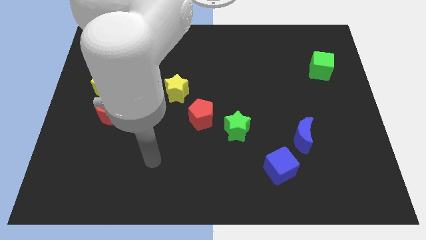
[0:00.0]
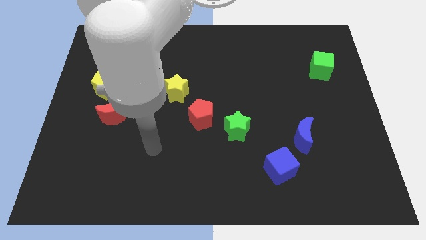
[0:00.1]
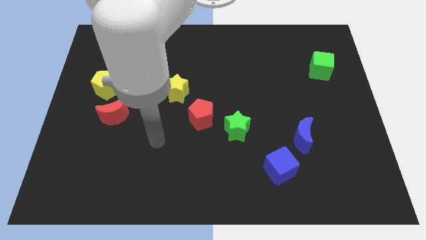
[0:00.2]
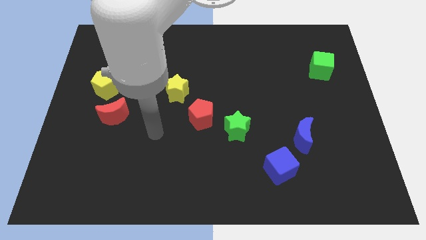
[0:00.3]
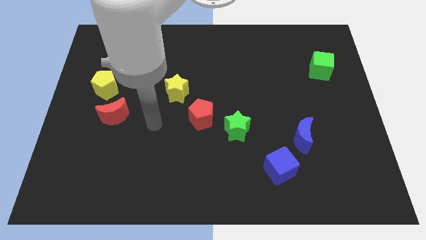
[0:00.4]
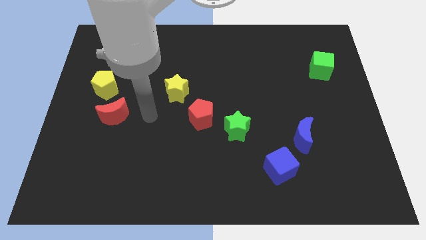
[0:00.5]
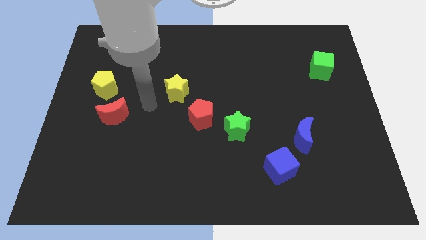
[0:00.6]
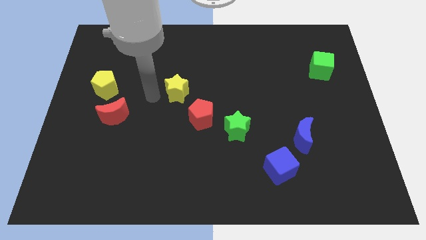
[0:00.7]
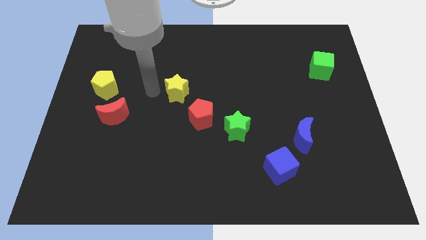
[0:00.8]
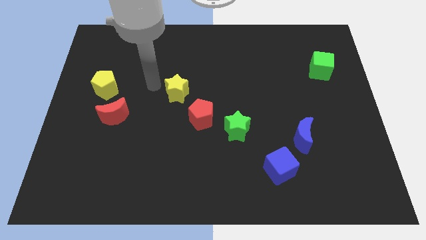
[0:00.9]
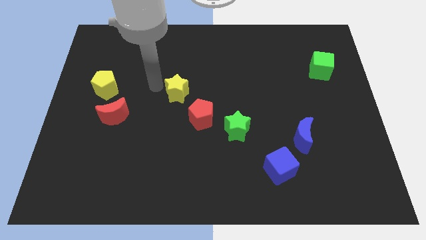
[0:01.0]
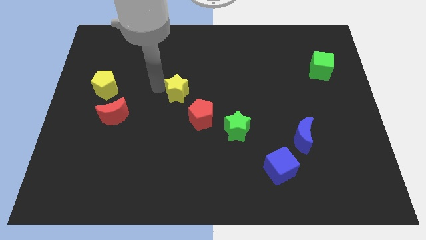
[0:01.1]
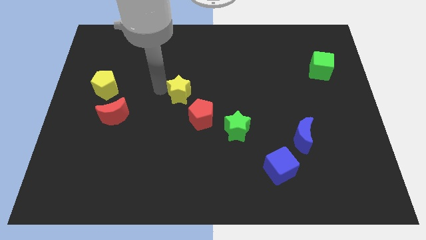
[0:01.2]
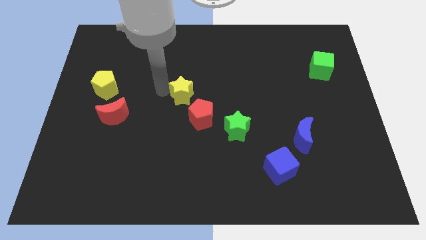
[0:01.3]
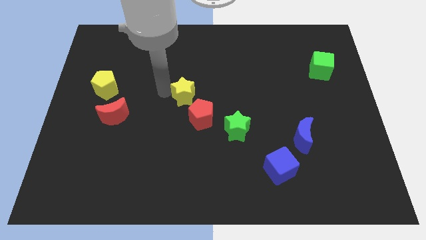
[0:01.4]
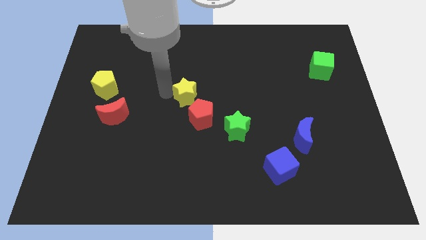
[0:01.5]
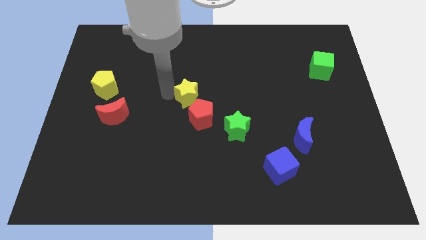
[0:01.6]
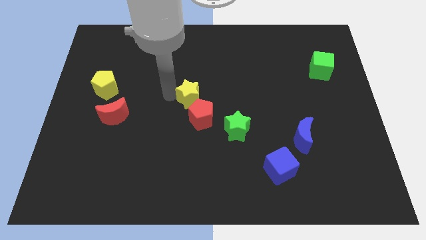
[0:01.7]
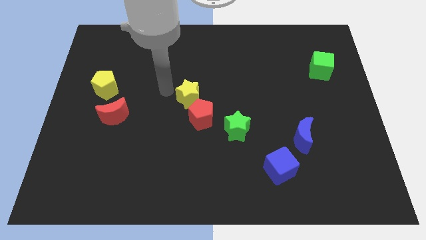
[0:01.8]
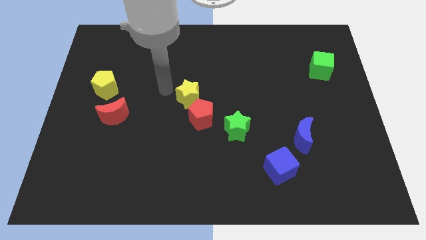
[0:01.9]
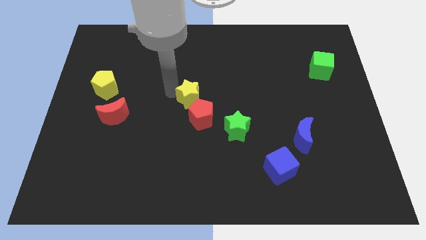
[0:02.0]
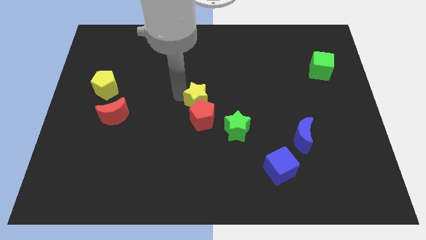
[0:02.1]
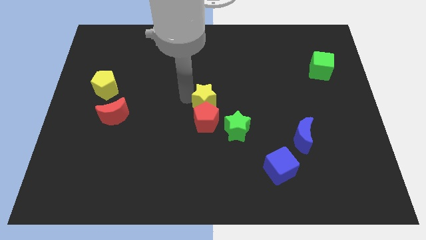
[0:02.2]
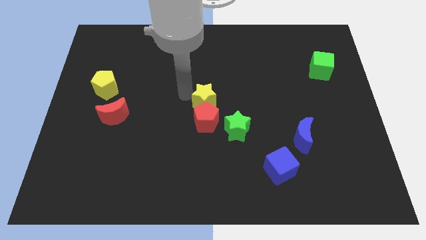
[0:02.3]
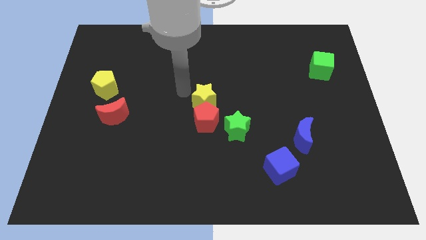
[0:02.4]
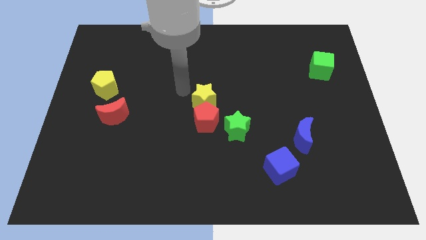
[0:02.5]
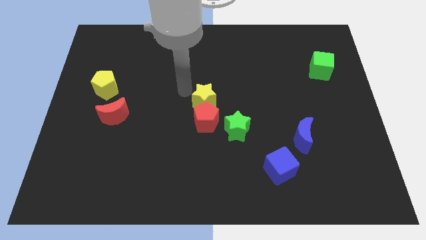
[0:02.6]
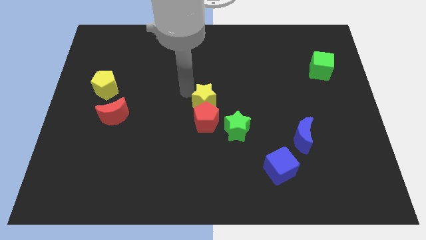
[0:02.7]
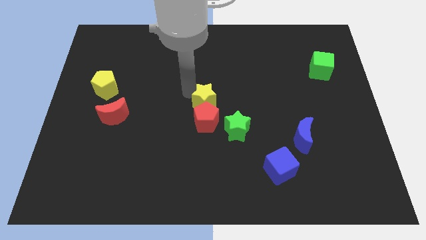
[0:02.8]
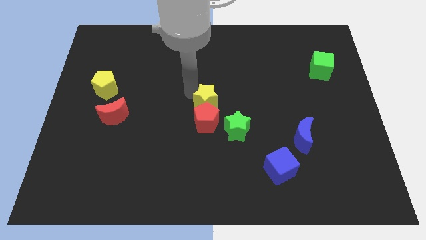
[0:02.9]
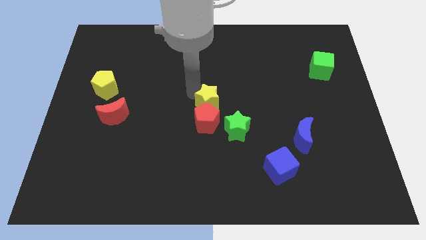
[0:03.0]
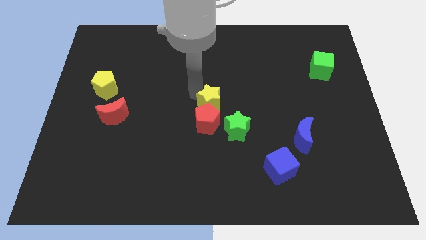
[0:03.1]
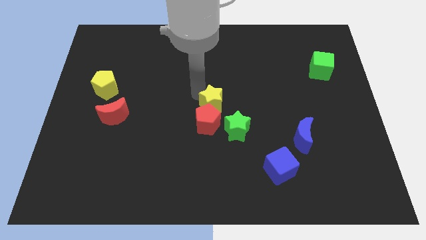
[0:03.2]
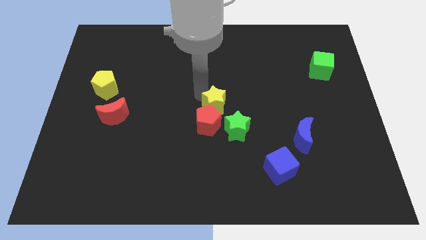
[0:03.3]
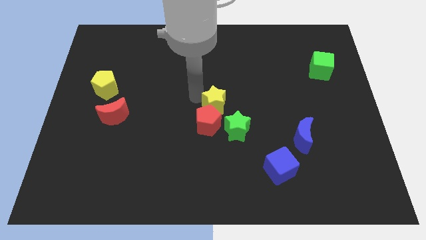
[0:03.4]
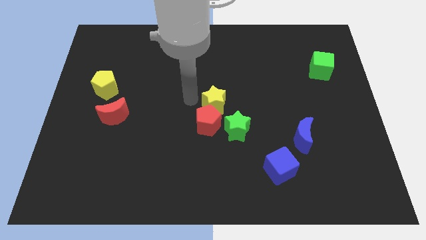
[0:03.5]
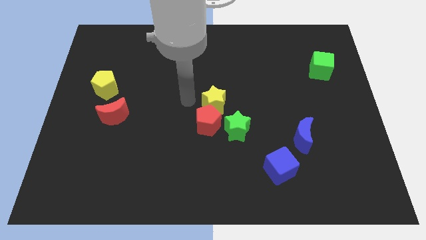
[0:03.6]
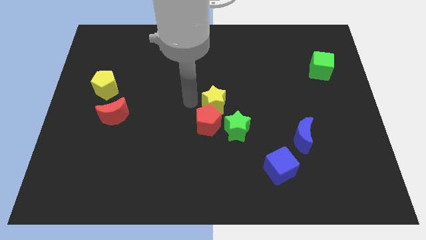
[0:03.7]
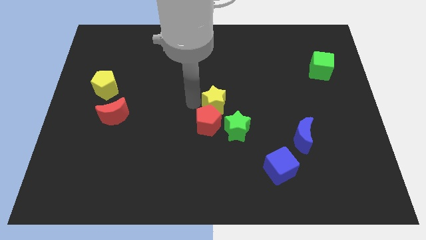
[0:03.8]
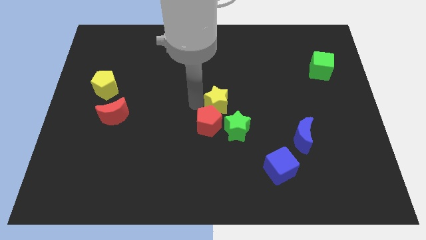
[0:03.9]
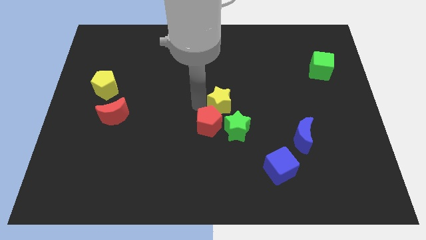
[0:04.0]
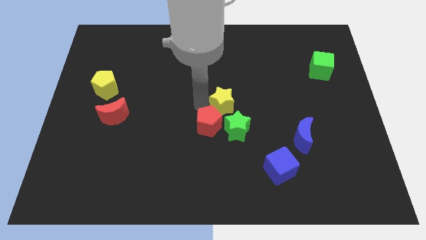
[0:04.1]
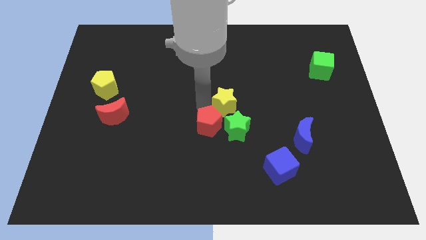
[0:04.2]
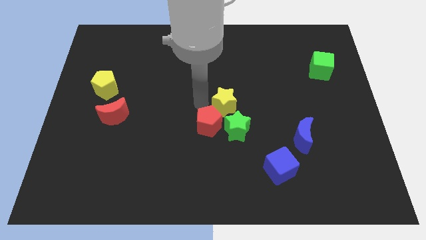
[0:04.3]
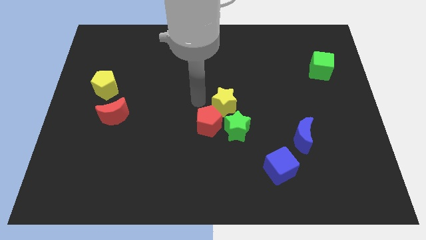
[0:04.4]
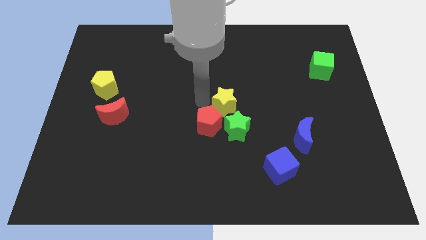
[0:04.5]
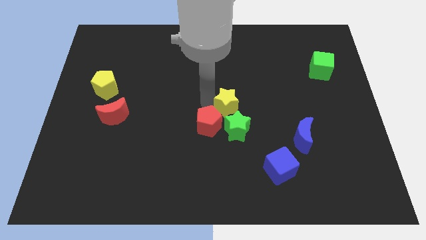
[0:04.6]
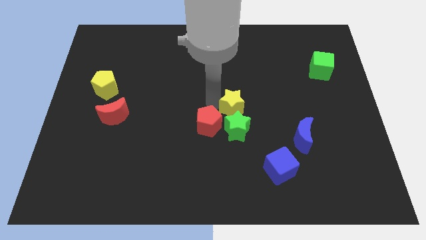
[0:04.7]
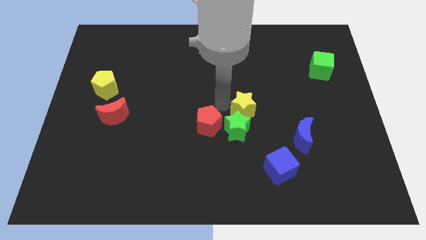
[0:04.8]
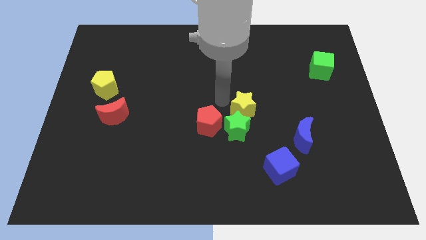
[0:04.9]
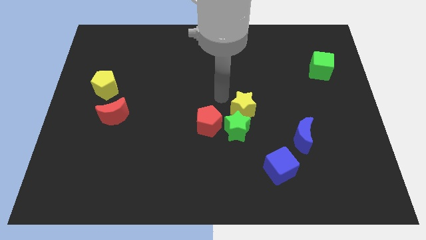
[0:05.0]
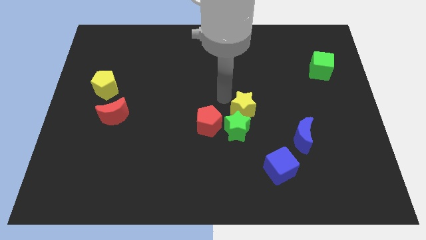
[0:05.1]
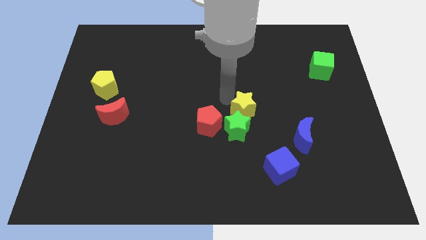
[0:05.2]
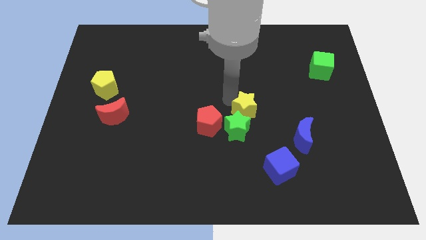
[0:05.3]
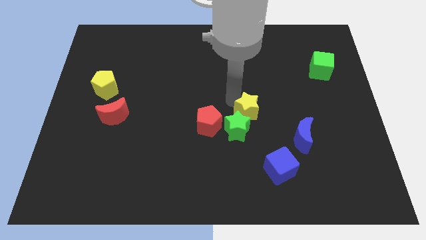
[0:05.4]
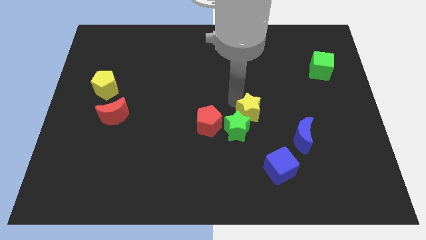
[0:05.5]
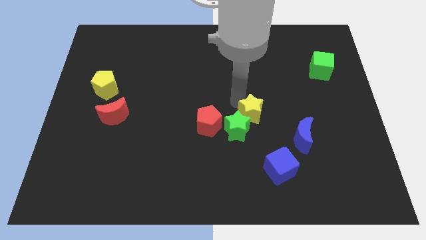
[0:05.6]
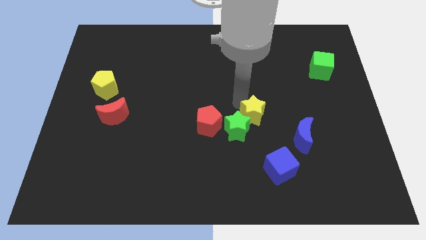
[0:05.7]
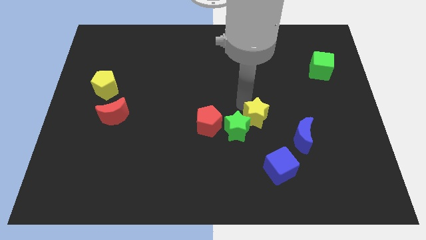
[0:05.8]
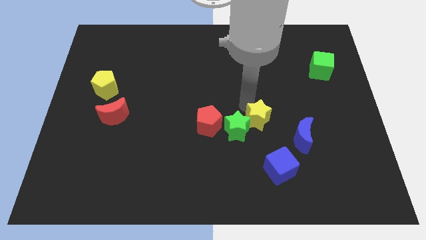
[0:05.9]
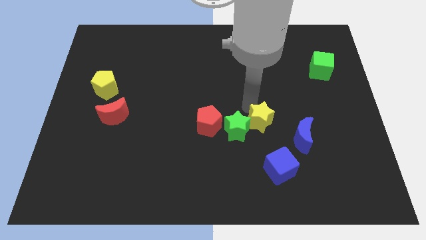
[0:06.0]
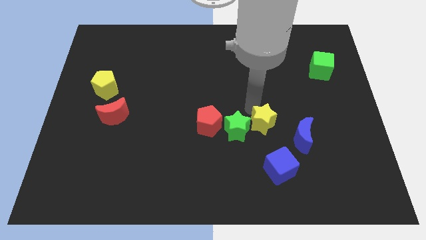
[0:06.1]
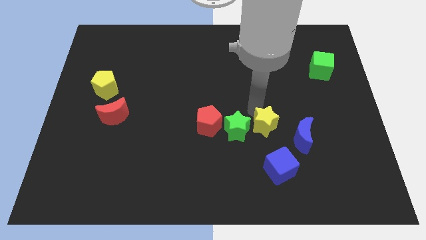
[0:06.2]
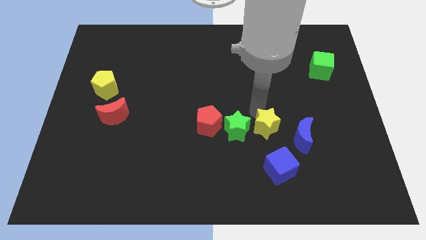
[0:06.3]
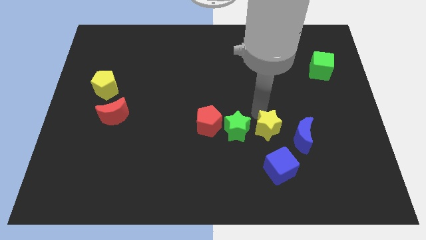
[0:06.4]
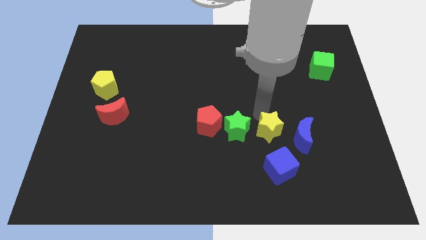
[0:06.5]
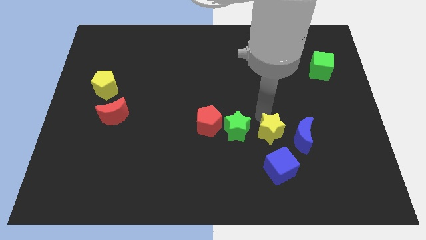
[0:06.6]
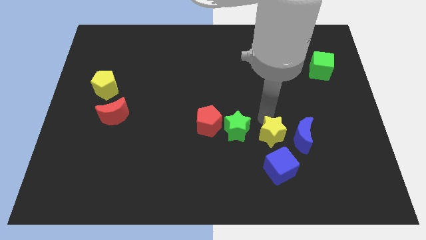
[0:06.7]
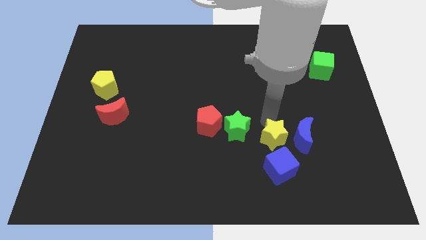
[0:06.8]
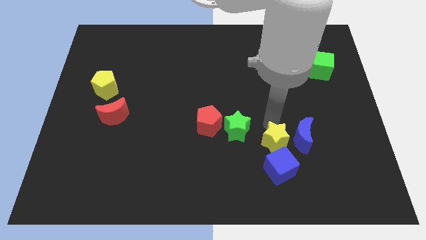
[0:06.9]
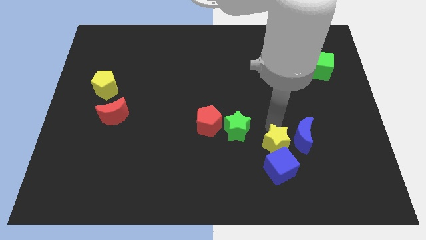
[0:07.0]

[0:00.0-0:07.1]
move the yellow star close to the blue cube

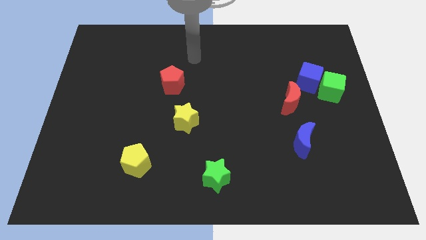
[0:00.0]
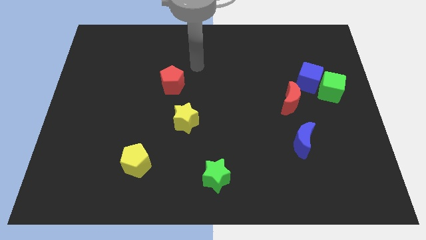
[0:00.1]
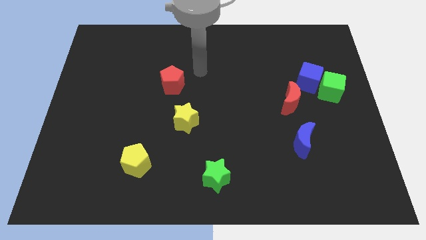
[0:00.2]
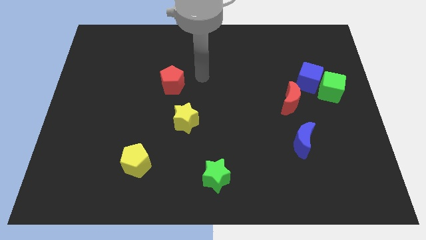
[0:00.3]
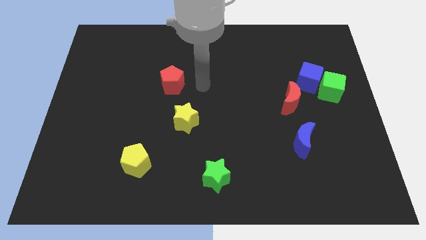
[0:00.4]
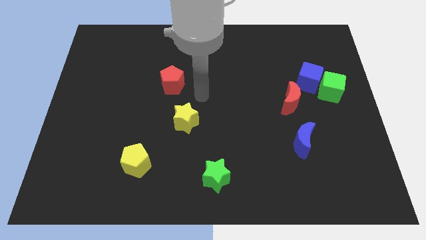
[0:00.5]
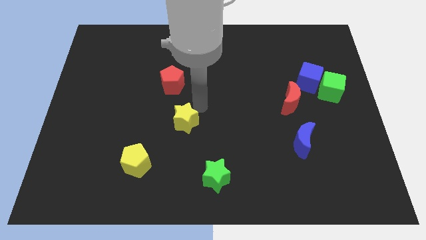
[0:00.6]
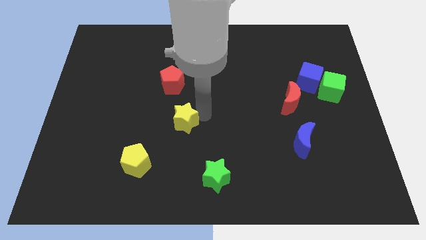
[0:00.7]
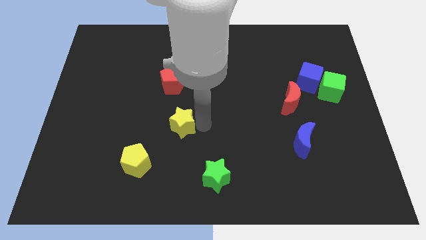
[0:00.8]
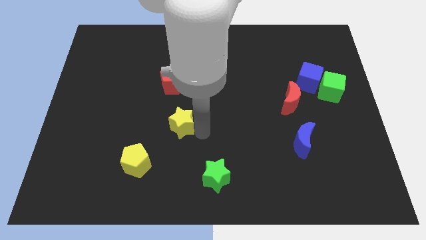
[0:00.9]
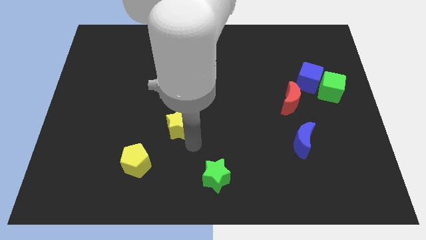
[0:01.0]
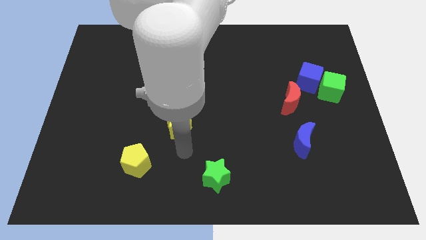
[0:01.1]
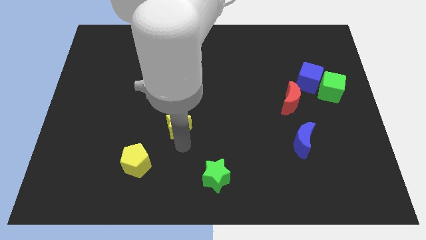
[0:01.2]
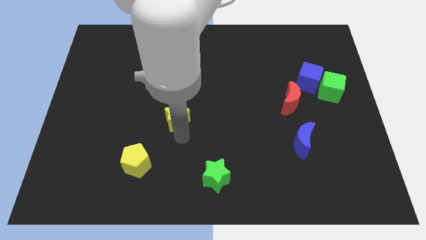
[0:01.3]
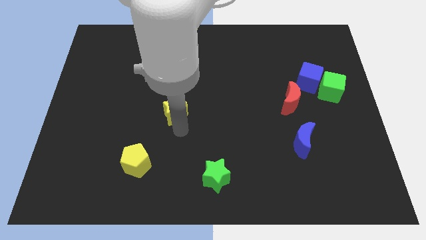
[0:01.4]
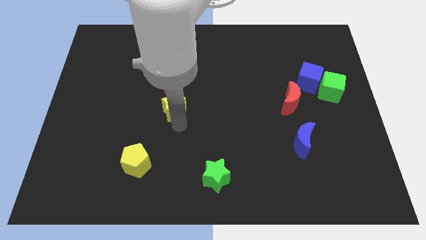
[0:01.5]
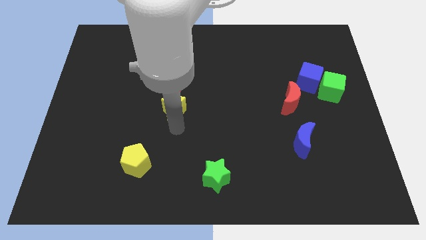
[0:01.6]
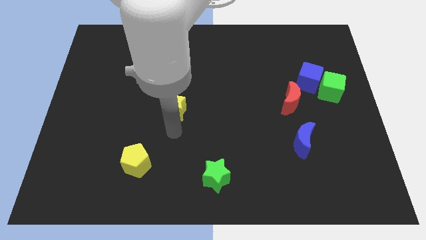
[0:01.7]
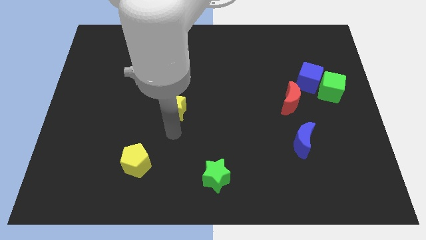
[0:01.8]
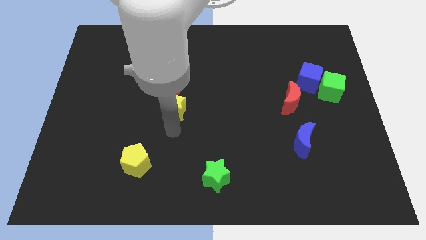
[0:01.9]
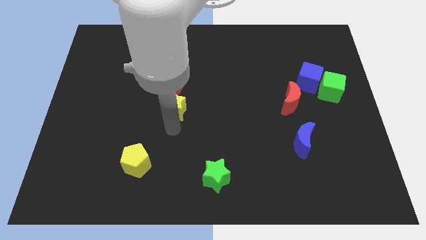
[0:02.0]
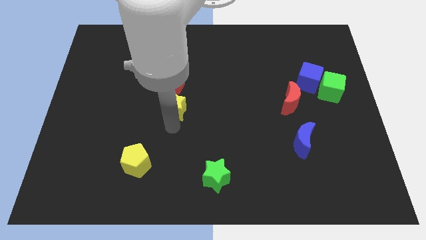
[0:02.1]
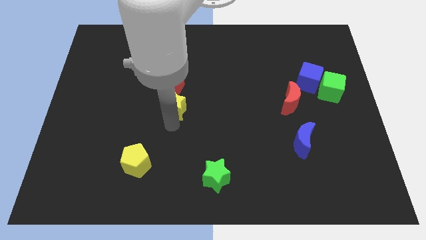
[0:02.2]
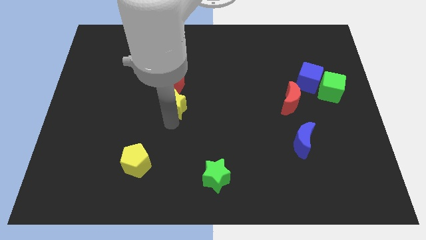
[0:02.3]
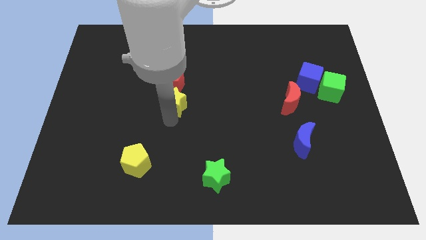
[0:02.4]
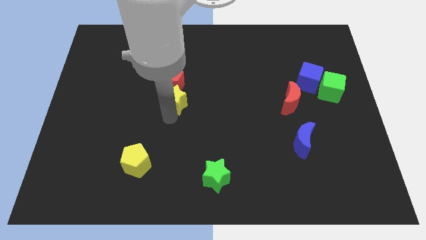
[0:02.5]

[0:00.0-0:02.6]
slide the yellow star close to the red pentagon
